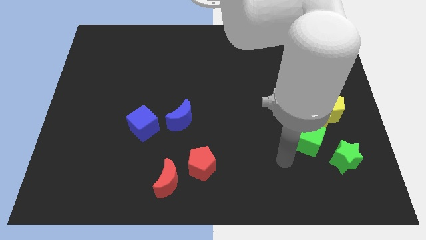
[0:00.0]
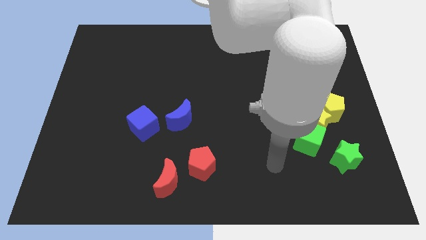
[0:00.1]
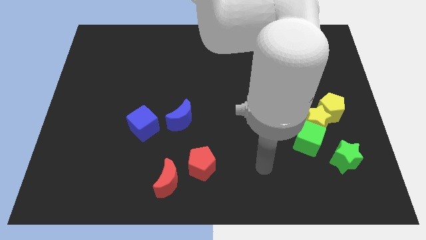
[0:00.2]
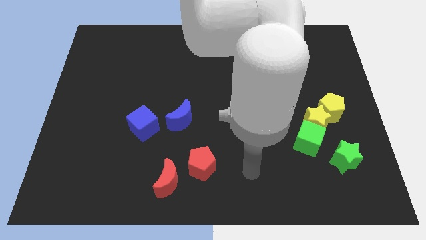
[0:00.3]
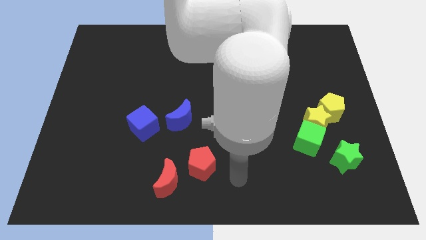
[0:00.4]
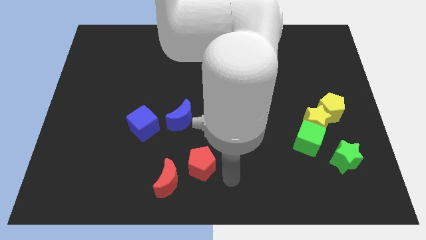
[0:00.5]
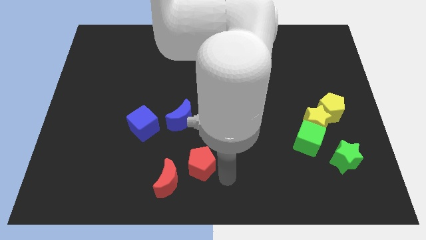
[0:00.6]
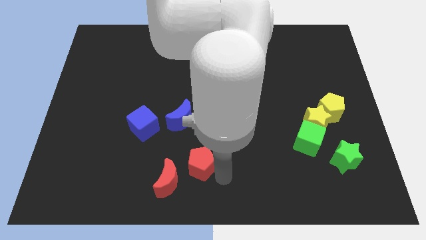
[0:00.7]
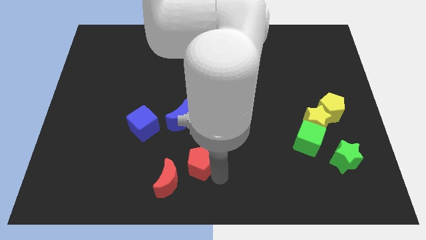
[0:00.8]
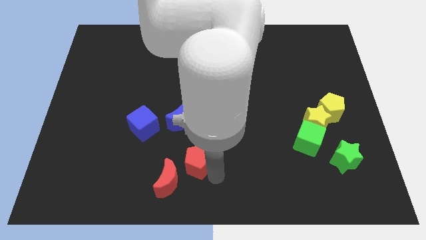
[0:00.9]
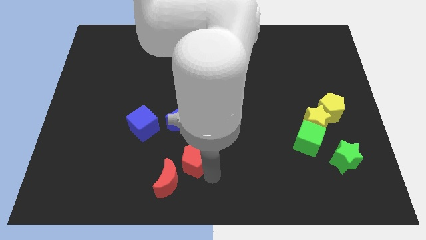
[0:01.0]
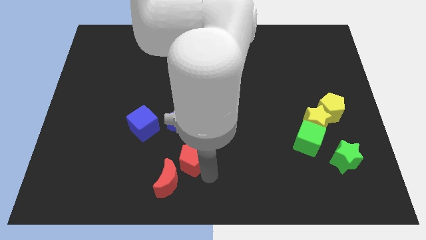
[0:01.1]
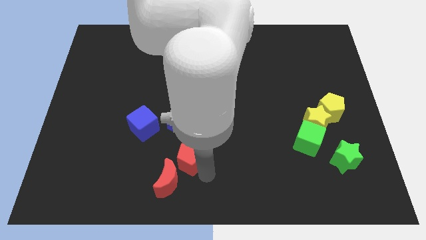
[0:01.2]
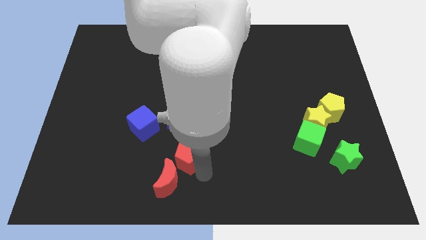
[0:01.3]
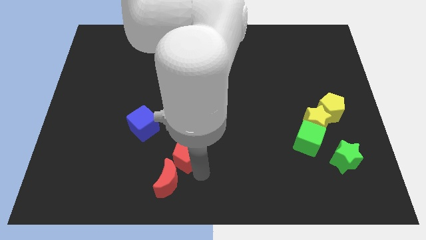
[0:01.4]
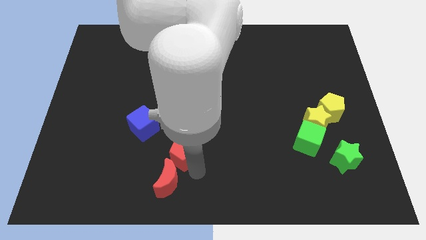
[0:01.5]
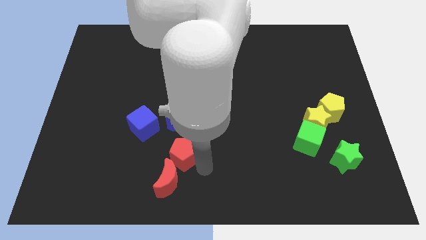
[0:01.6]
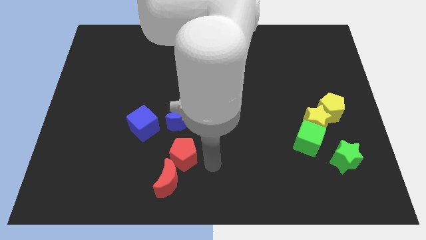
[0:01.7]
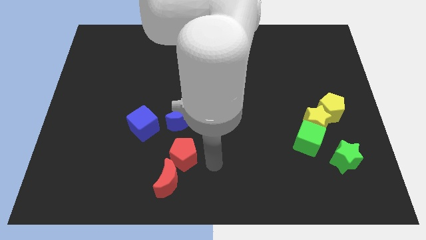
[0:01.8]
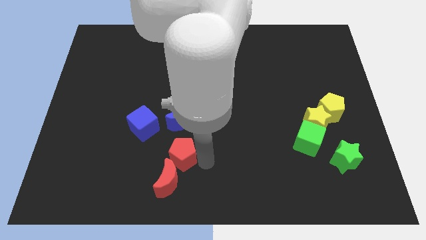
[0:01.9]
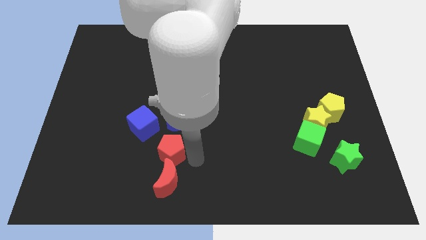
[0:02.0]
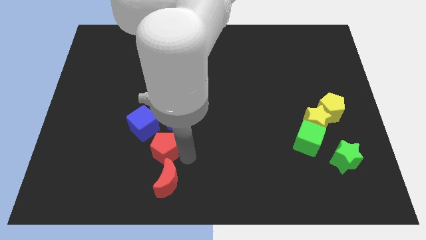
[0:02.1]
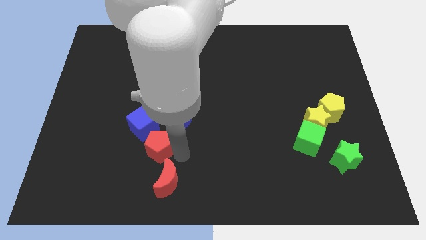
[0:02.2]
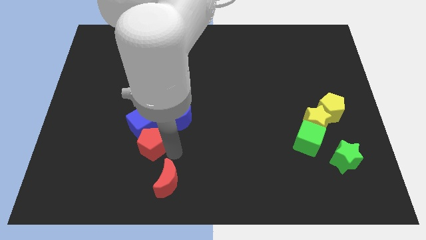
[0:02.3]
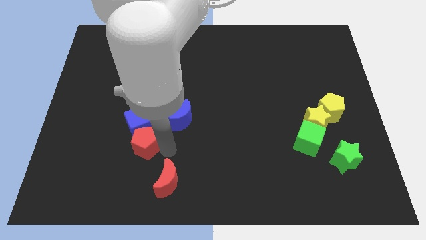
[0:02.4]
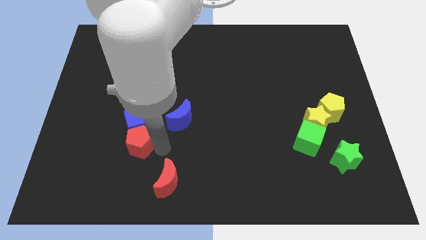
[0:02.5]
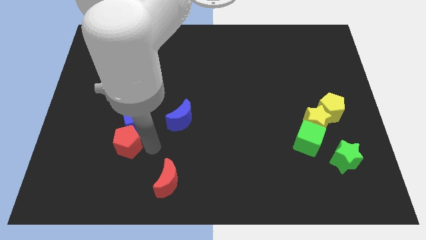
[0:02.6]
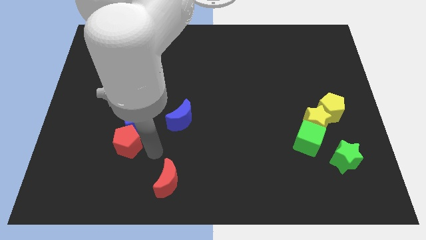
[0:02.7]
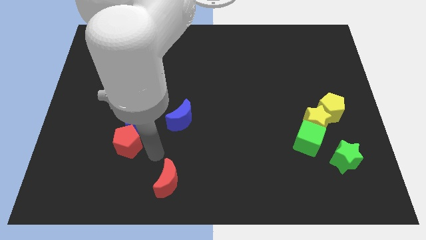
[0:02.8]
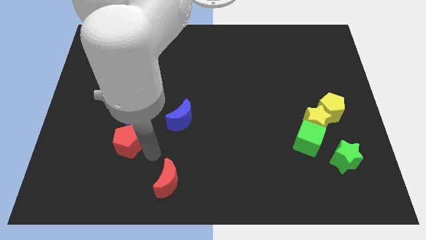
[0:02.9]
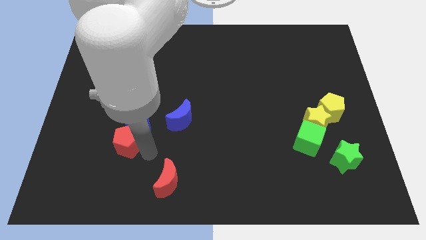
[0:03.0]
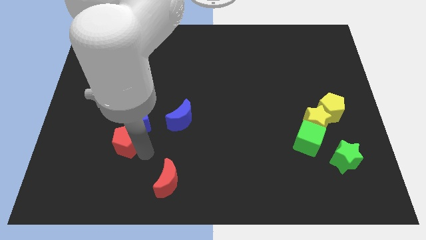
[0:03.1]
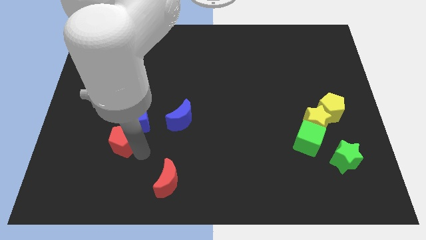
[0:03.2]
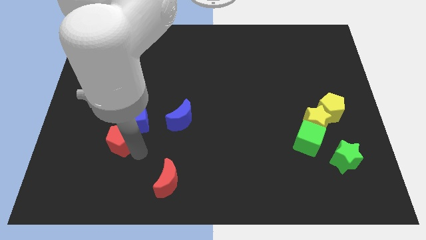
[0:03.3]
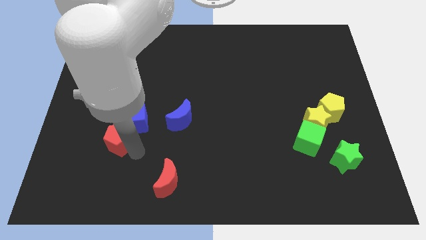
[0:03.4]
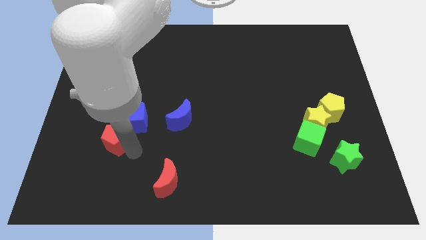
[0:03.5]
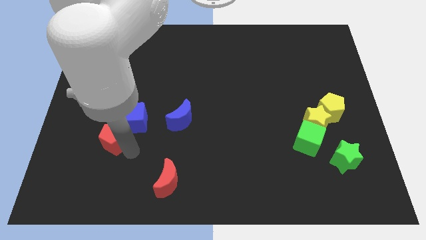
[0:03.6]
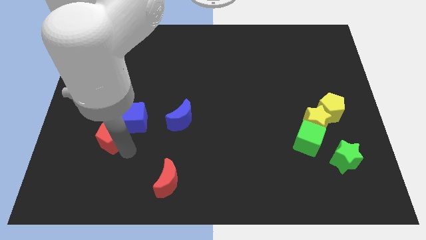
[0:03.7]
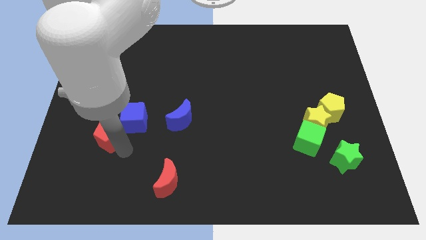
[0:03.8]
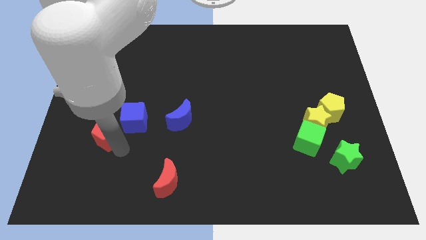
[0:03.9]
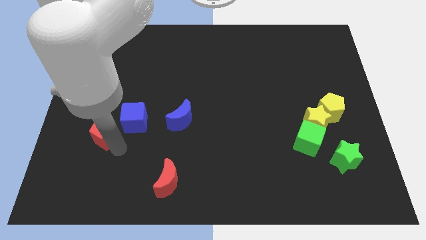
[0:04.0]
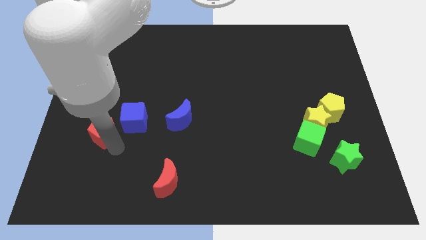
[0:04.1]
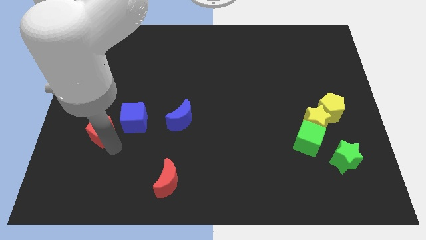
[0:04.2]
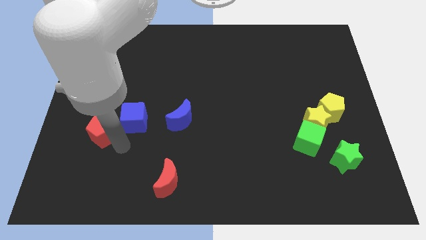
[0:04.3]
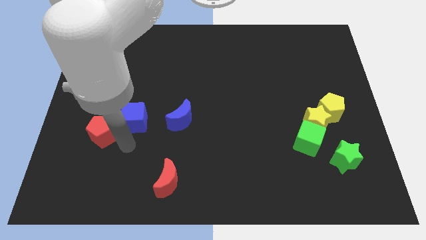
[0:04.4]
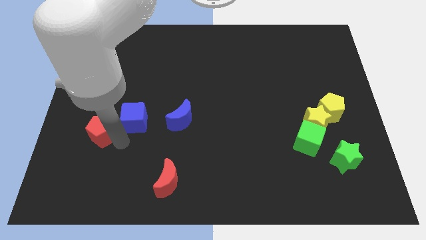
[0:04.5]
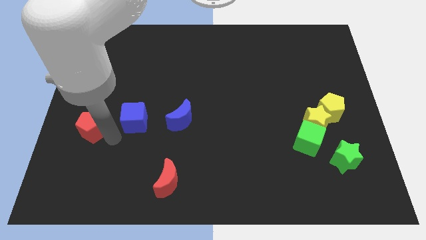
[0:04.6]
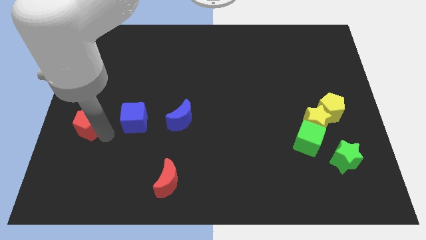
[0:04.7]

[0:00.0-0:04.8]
push the red pentagon to the left side

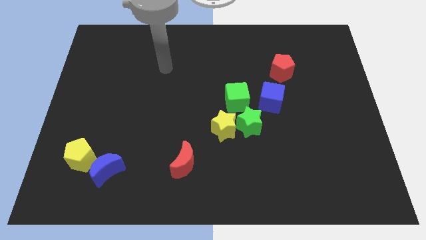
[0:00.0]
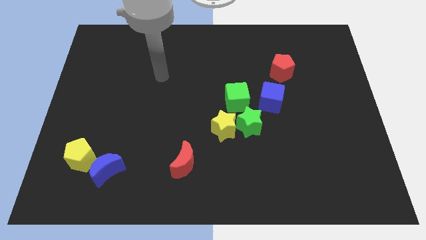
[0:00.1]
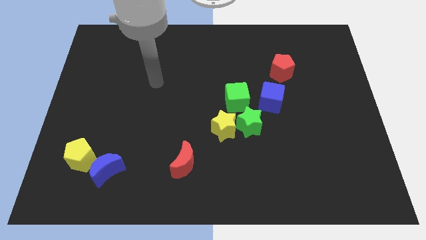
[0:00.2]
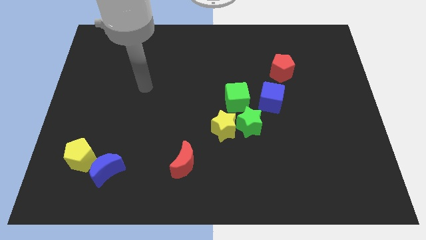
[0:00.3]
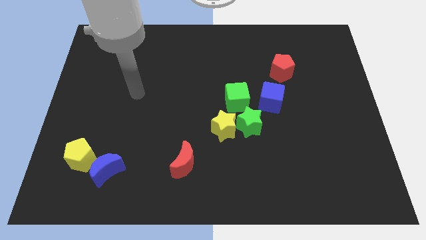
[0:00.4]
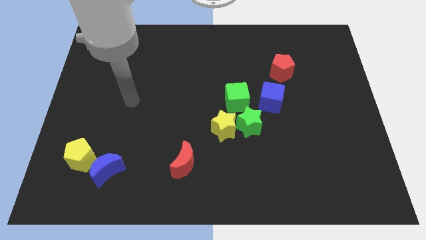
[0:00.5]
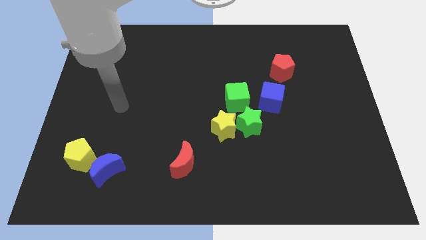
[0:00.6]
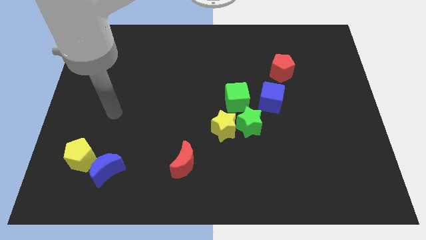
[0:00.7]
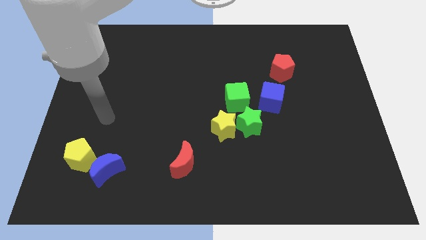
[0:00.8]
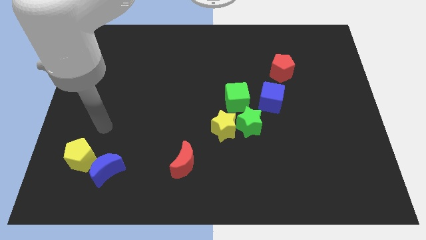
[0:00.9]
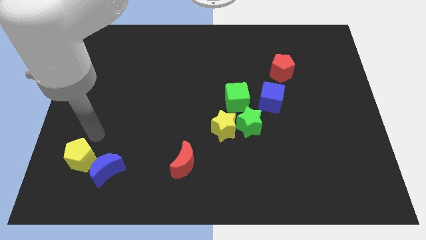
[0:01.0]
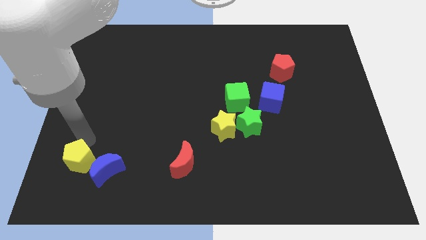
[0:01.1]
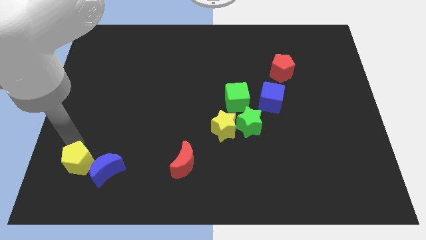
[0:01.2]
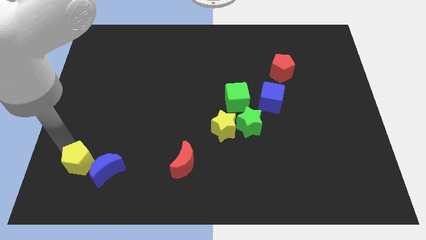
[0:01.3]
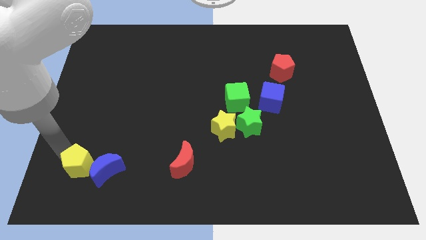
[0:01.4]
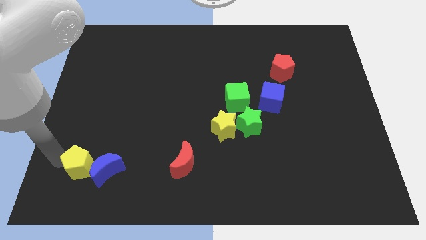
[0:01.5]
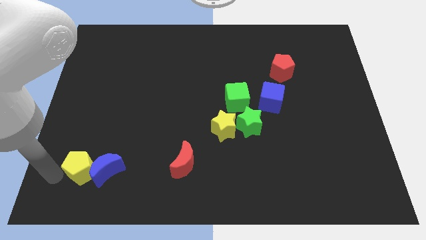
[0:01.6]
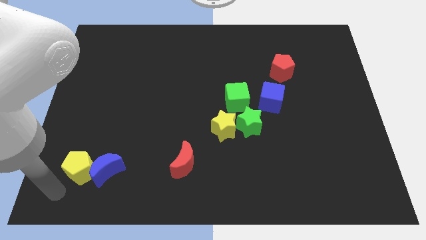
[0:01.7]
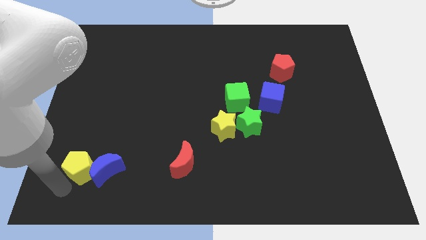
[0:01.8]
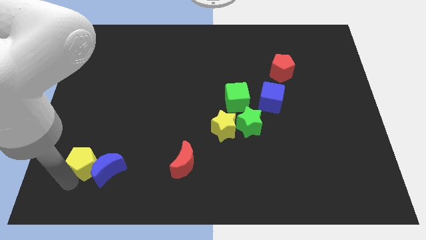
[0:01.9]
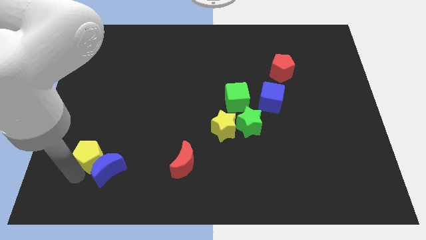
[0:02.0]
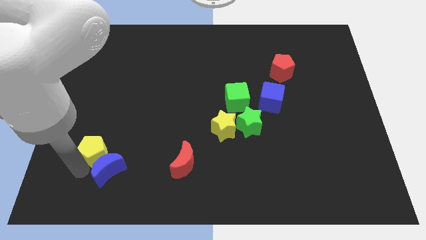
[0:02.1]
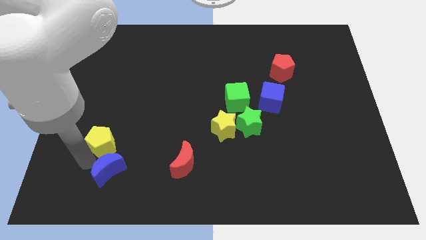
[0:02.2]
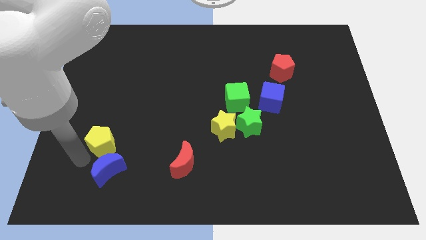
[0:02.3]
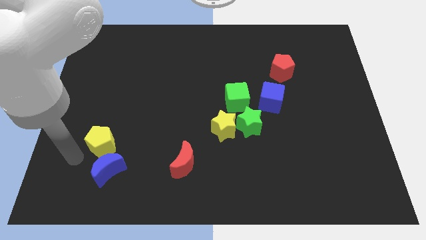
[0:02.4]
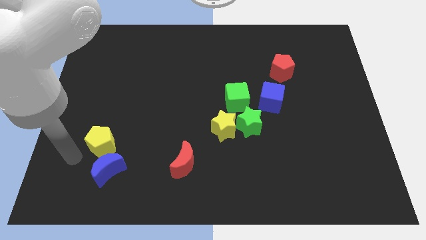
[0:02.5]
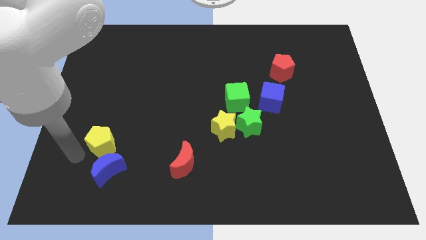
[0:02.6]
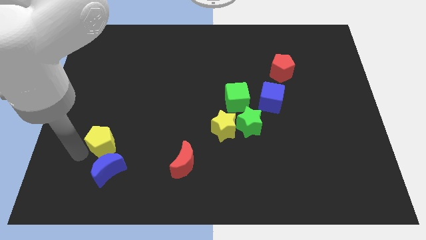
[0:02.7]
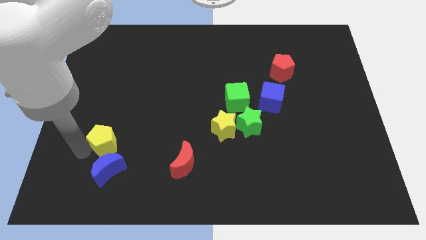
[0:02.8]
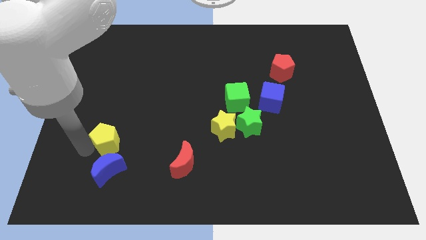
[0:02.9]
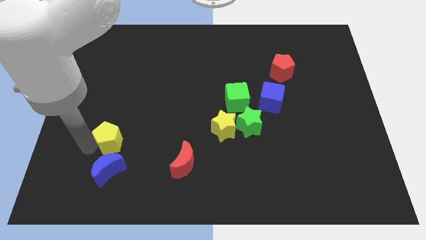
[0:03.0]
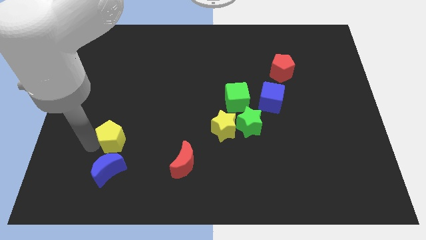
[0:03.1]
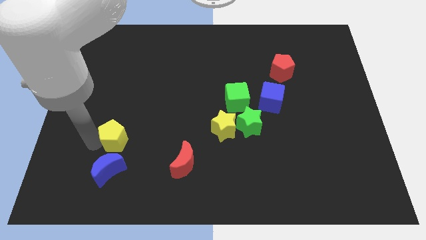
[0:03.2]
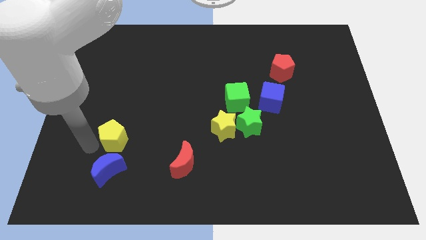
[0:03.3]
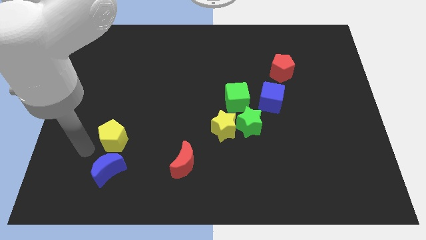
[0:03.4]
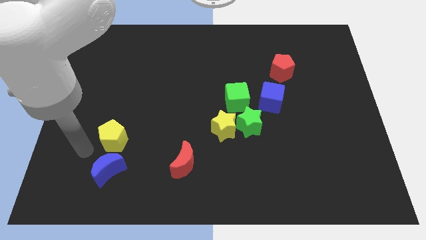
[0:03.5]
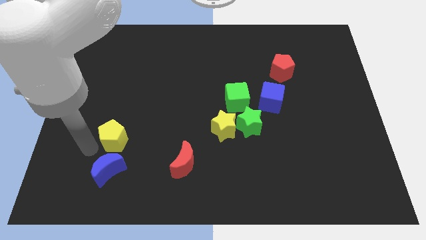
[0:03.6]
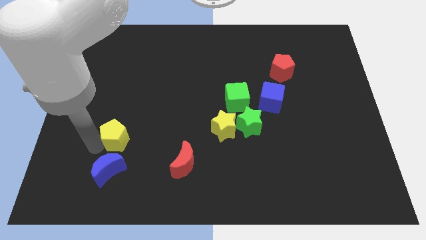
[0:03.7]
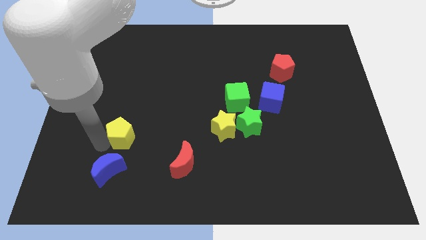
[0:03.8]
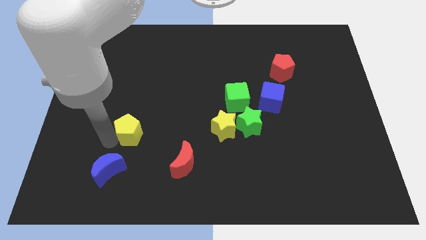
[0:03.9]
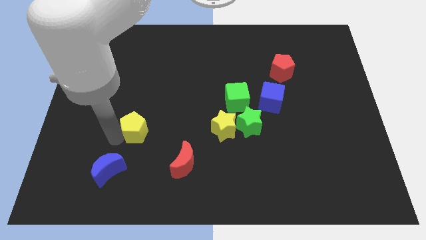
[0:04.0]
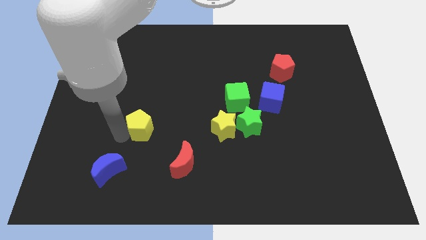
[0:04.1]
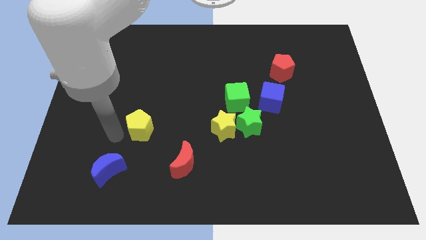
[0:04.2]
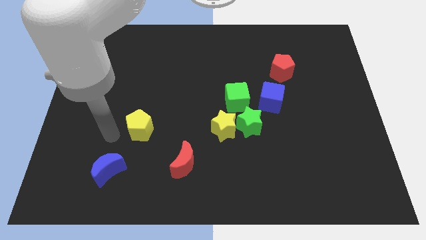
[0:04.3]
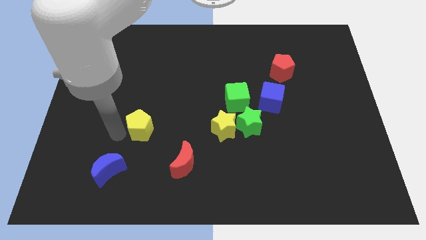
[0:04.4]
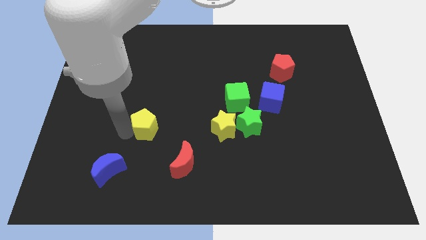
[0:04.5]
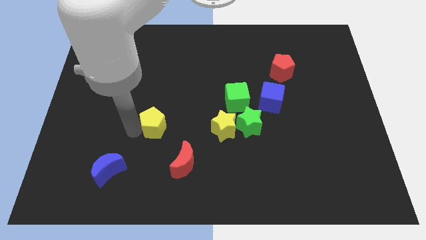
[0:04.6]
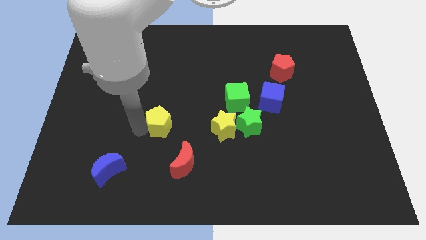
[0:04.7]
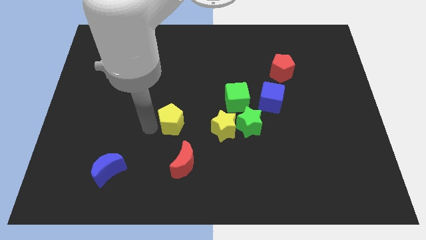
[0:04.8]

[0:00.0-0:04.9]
push the yellow pentagon to the middle
